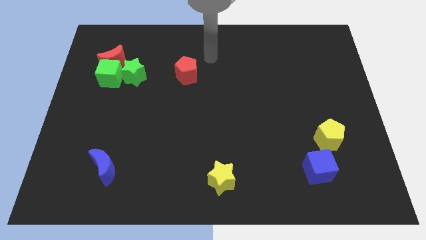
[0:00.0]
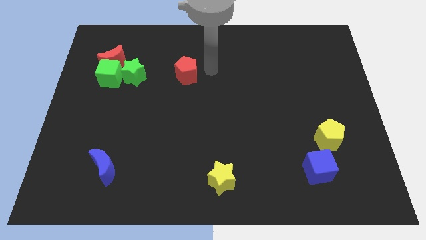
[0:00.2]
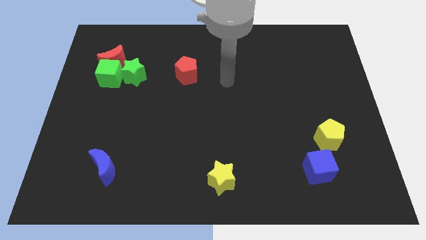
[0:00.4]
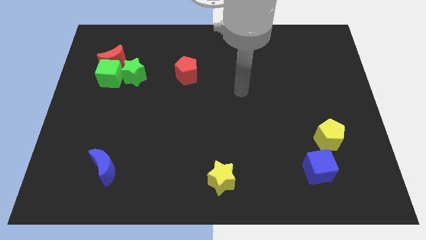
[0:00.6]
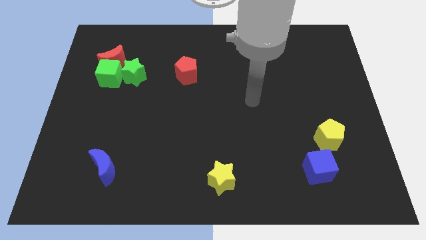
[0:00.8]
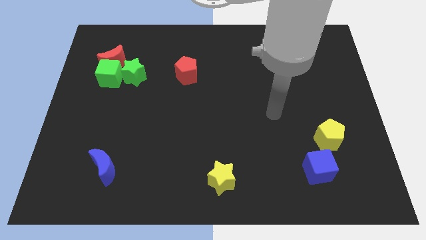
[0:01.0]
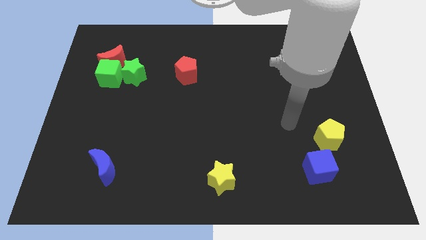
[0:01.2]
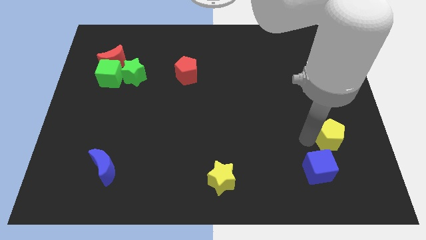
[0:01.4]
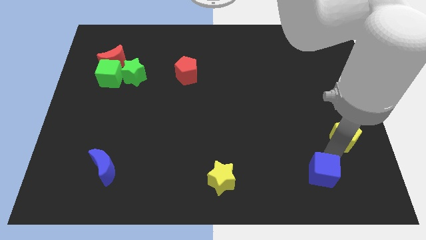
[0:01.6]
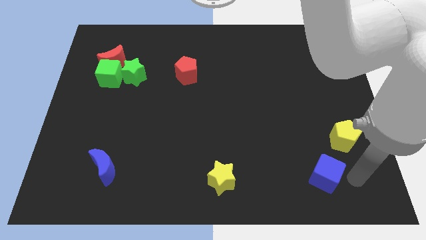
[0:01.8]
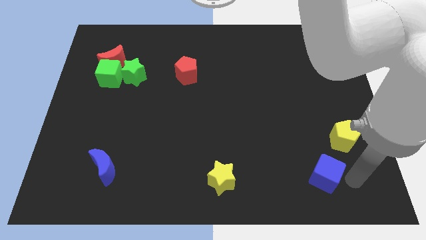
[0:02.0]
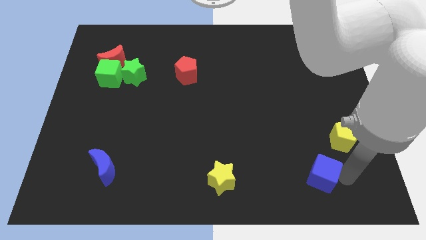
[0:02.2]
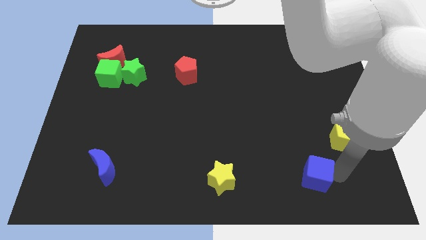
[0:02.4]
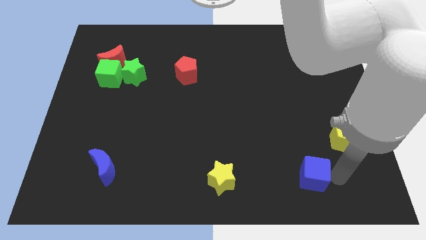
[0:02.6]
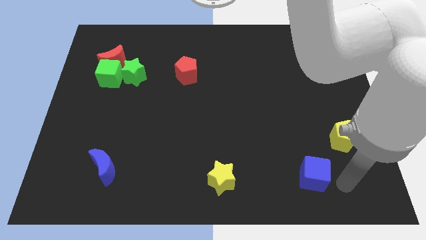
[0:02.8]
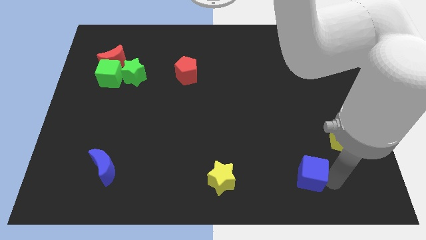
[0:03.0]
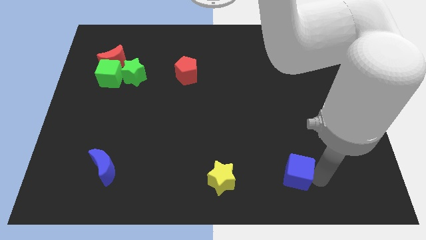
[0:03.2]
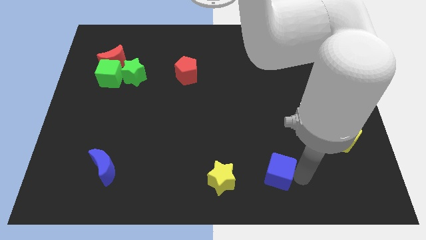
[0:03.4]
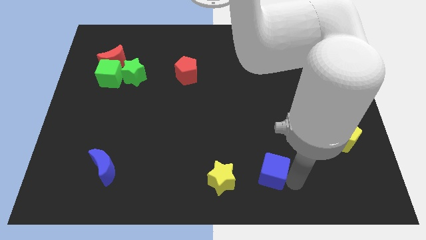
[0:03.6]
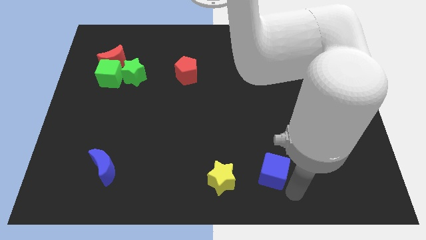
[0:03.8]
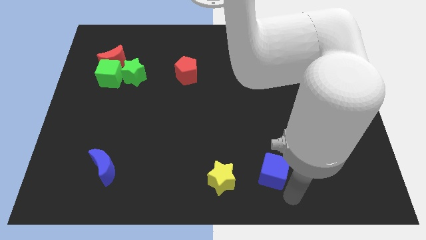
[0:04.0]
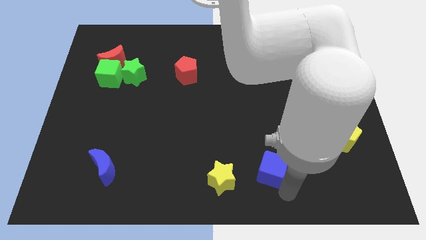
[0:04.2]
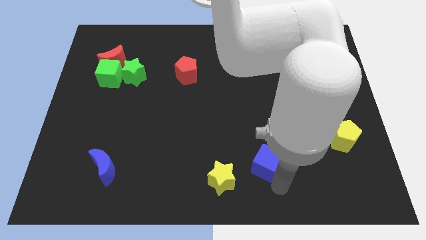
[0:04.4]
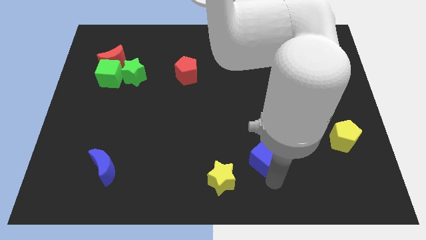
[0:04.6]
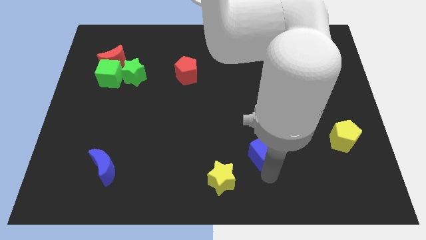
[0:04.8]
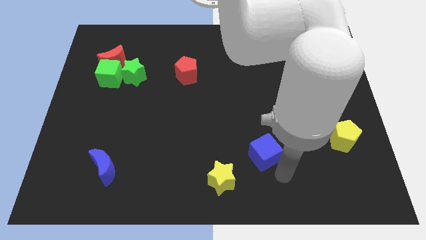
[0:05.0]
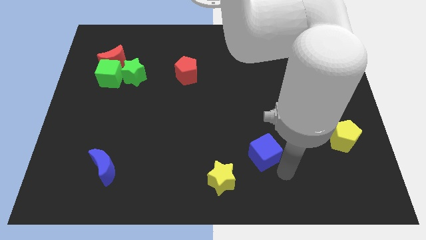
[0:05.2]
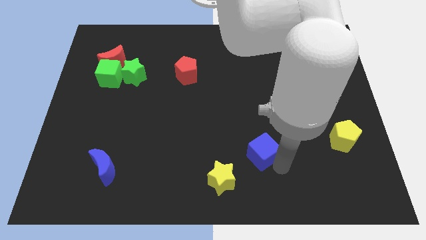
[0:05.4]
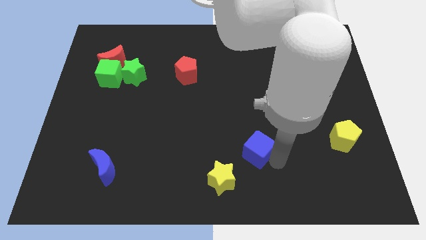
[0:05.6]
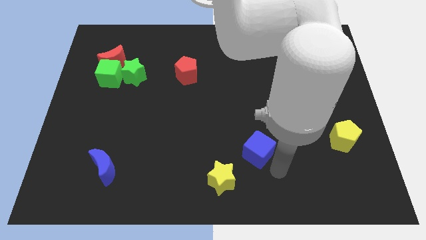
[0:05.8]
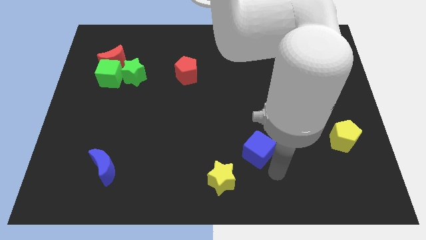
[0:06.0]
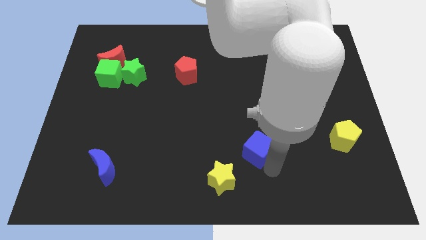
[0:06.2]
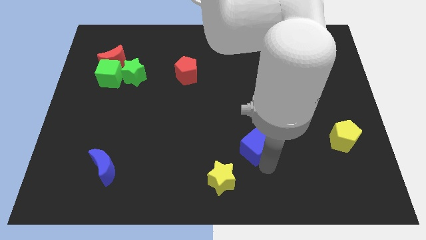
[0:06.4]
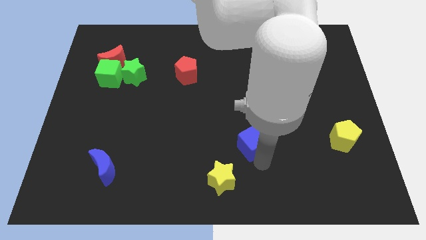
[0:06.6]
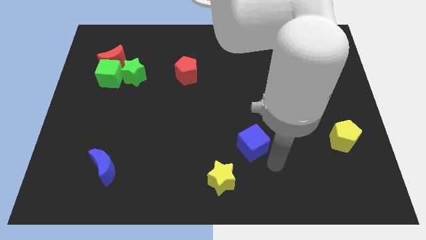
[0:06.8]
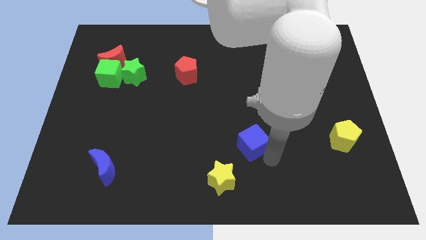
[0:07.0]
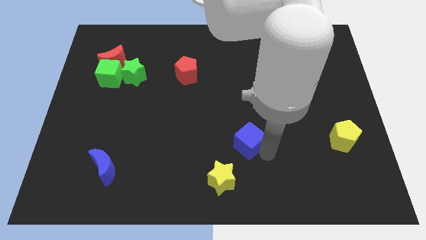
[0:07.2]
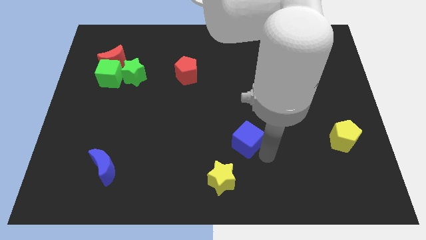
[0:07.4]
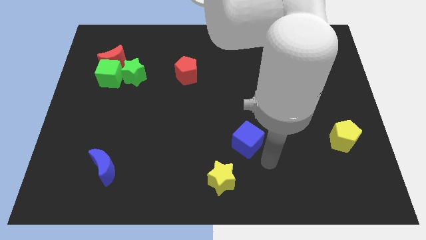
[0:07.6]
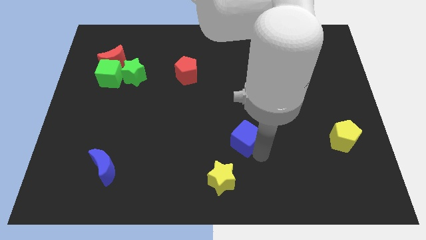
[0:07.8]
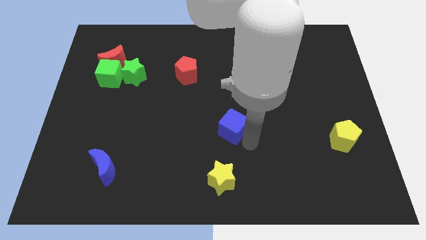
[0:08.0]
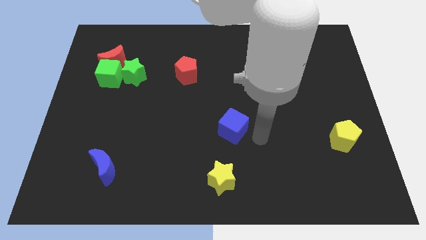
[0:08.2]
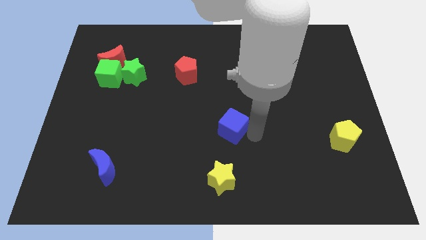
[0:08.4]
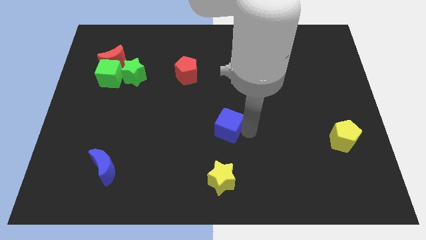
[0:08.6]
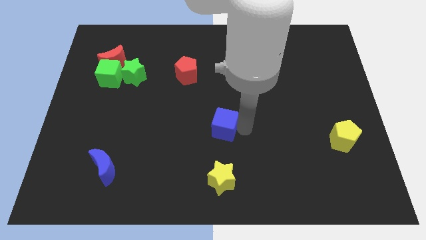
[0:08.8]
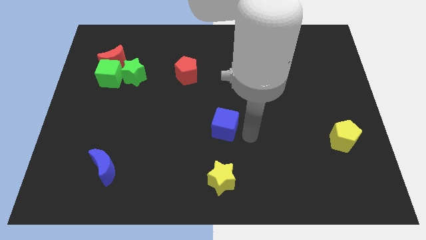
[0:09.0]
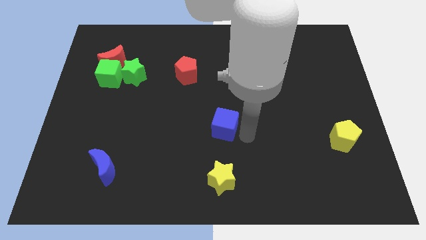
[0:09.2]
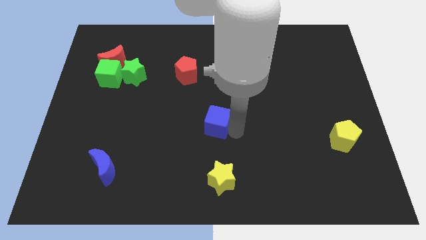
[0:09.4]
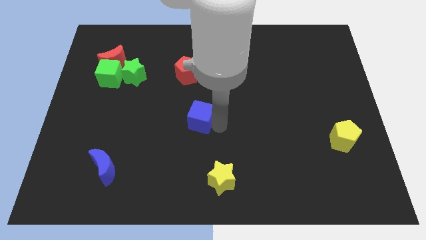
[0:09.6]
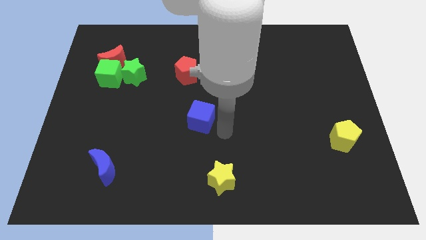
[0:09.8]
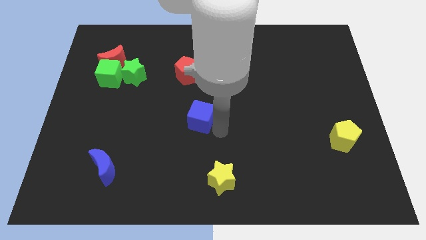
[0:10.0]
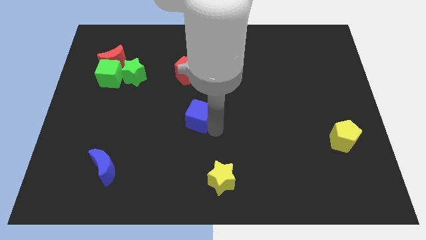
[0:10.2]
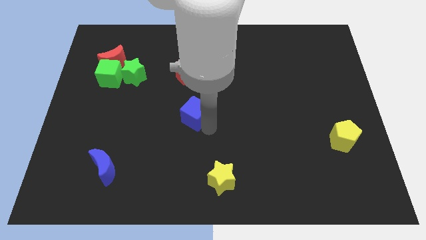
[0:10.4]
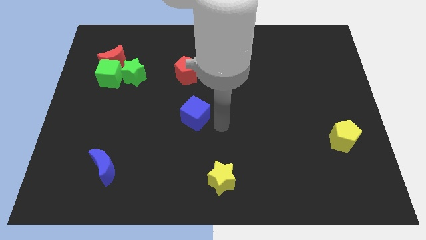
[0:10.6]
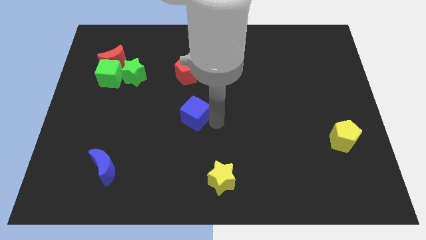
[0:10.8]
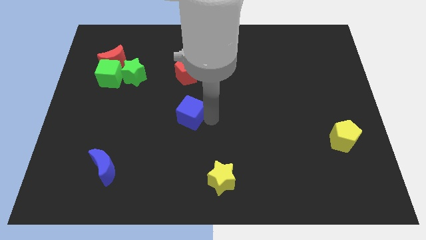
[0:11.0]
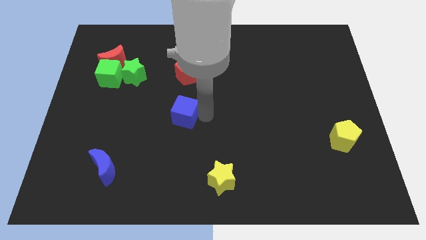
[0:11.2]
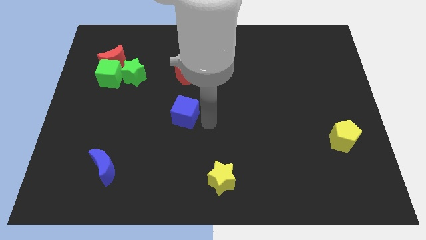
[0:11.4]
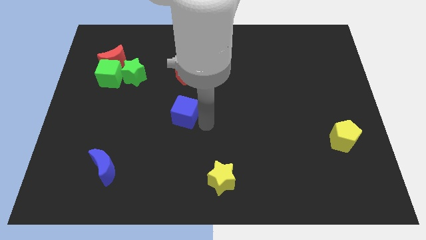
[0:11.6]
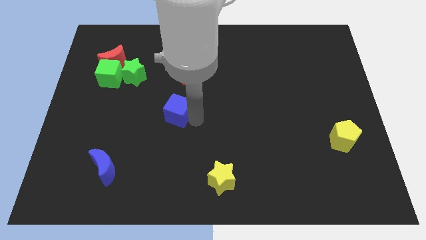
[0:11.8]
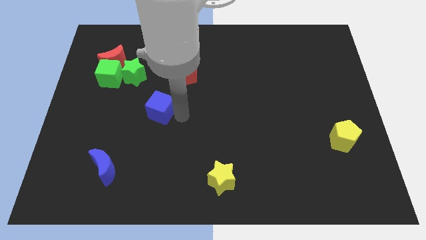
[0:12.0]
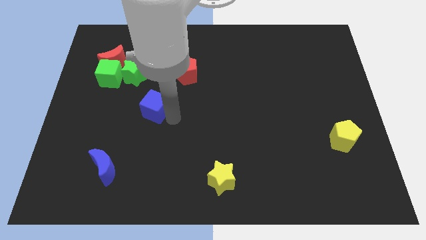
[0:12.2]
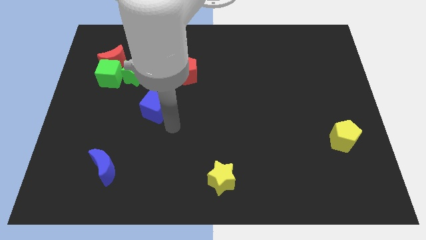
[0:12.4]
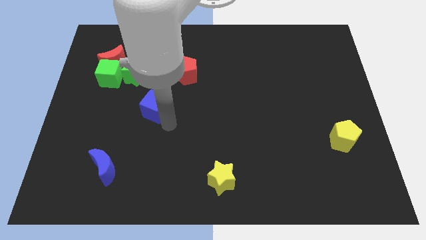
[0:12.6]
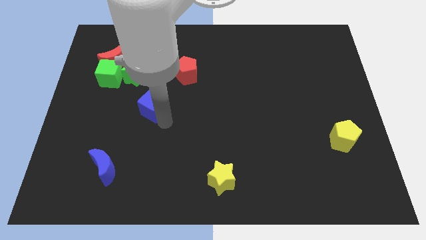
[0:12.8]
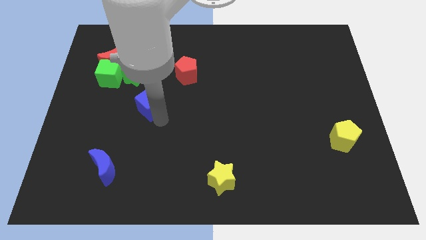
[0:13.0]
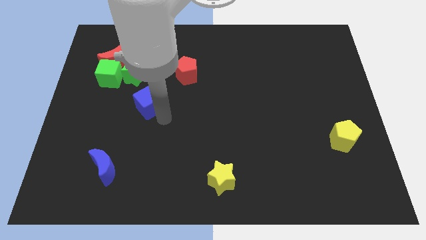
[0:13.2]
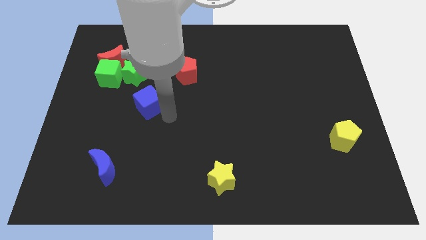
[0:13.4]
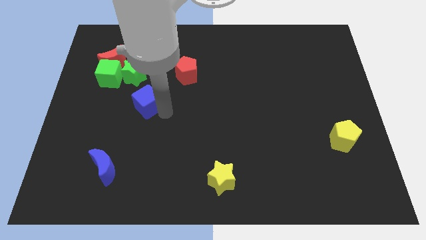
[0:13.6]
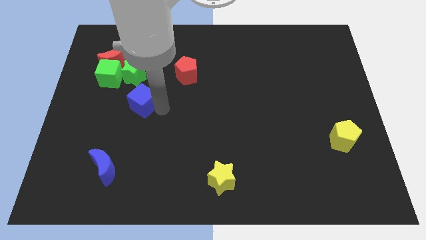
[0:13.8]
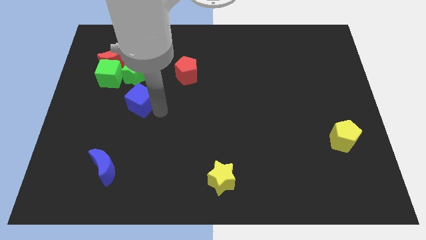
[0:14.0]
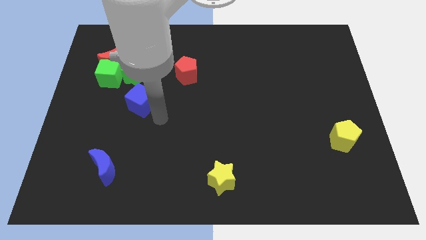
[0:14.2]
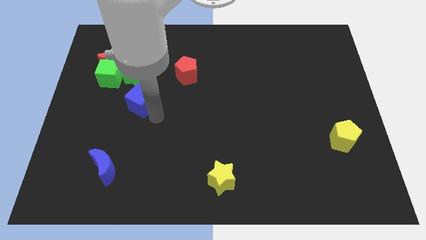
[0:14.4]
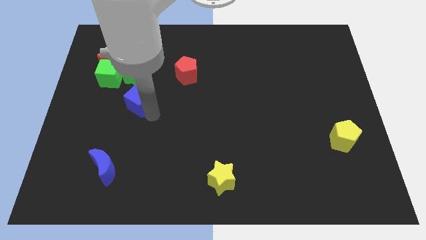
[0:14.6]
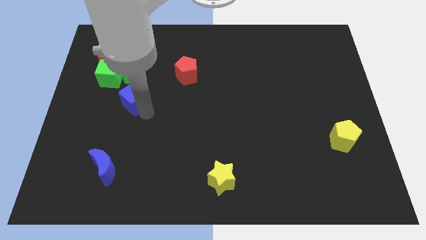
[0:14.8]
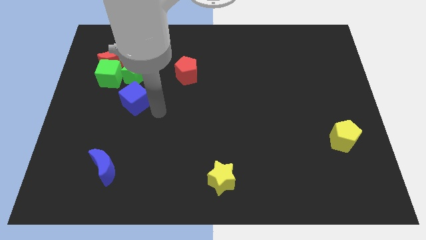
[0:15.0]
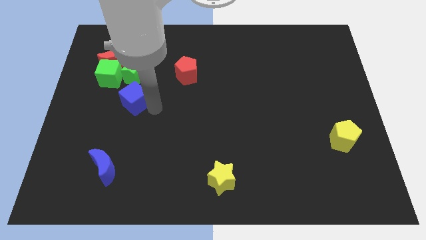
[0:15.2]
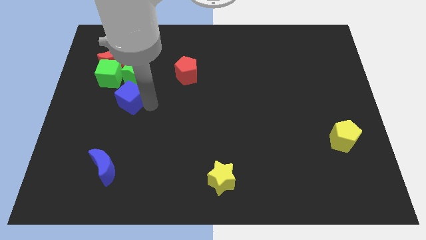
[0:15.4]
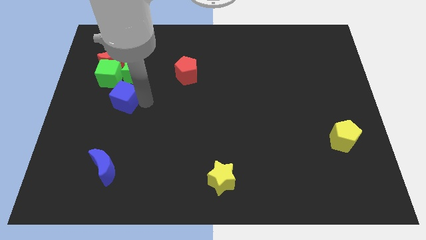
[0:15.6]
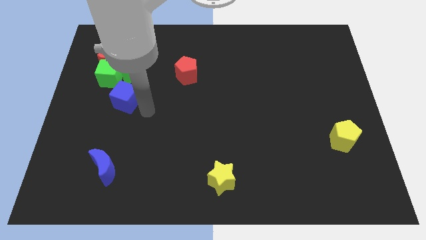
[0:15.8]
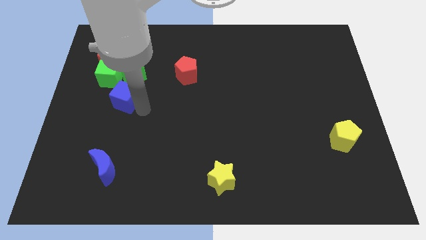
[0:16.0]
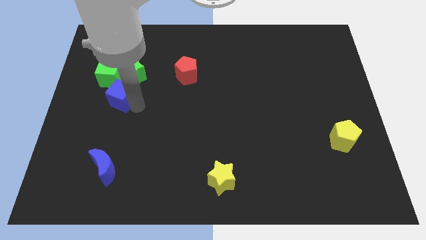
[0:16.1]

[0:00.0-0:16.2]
put the blue cube to the bottom left side of the green star
